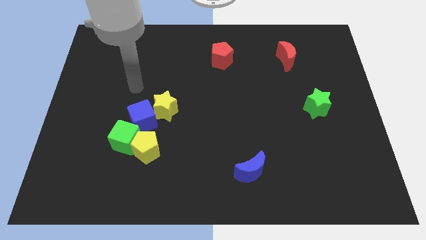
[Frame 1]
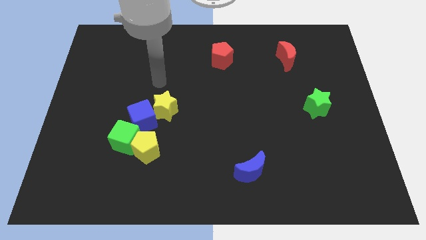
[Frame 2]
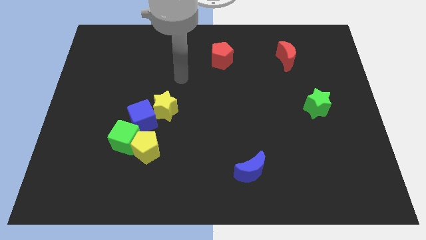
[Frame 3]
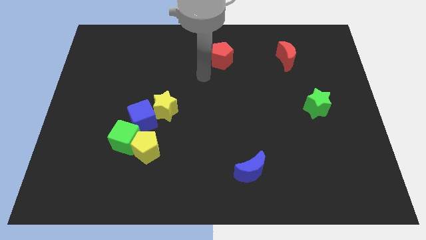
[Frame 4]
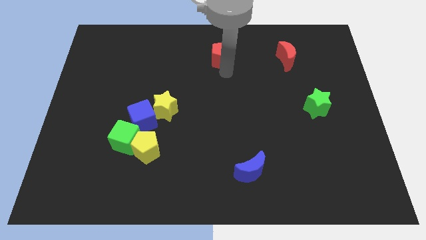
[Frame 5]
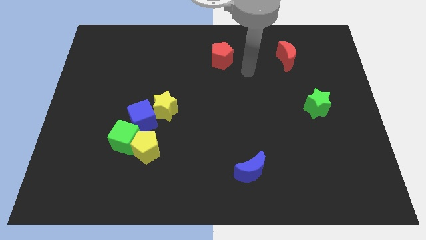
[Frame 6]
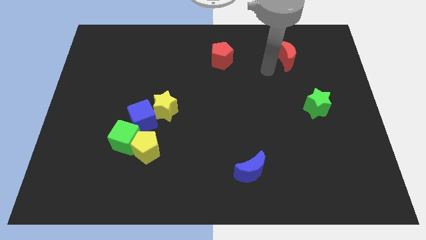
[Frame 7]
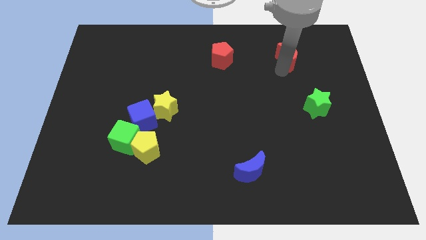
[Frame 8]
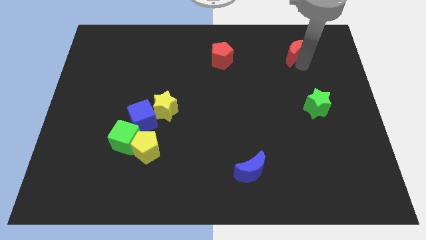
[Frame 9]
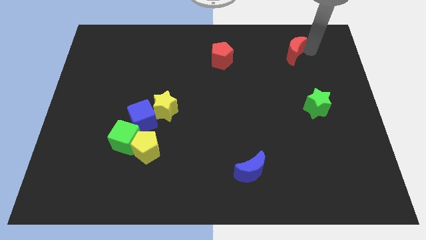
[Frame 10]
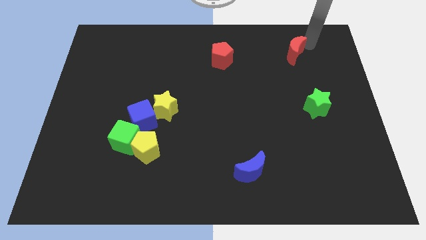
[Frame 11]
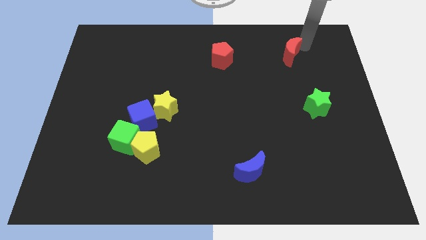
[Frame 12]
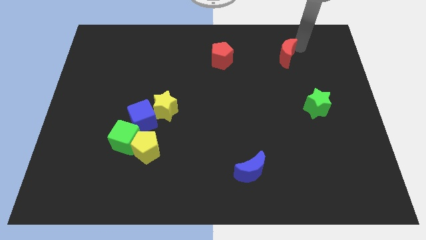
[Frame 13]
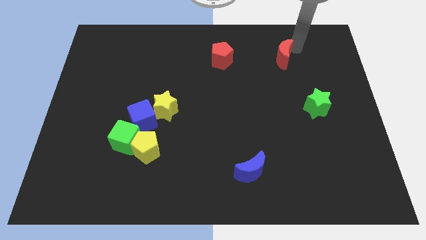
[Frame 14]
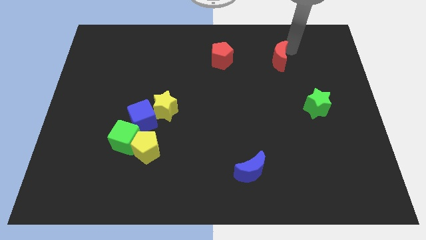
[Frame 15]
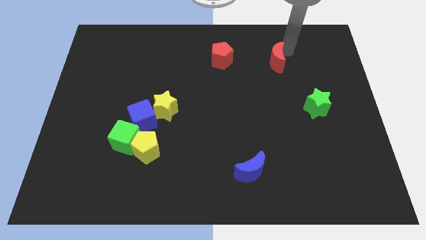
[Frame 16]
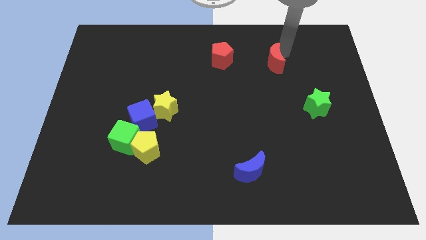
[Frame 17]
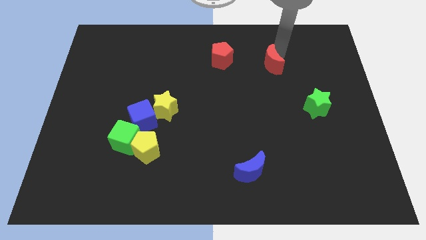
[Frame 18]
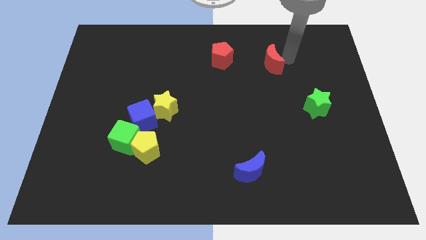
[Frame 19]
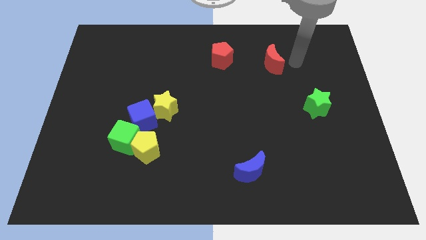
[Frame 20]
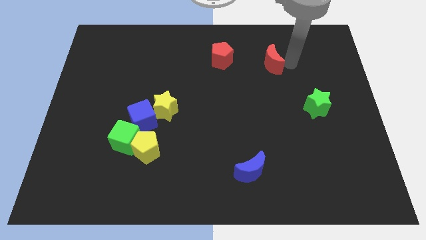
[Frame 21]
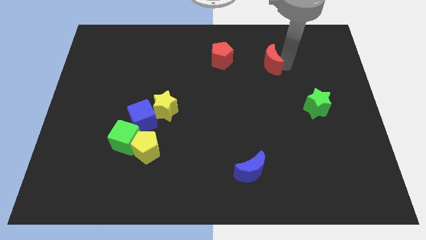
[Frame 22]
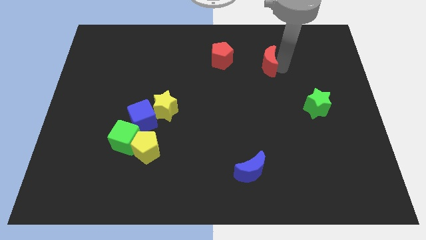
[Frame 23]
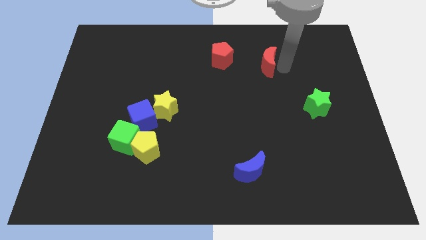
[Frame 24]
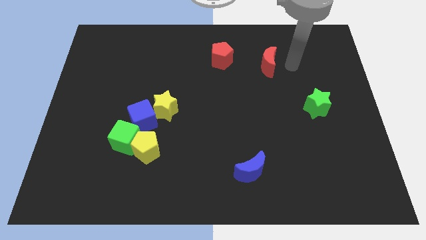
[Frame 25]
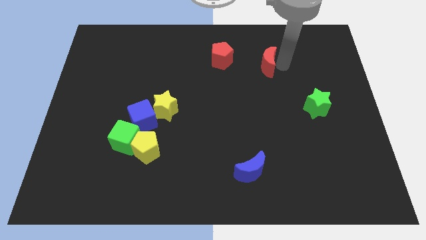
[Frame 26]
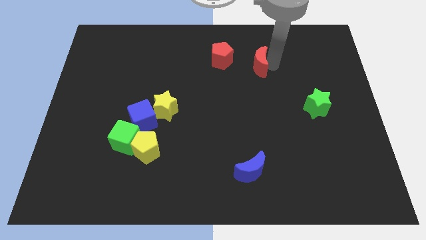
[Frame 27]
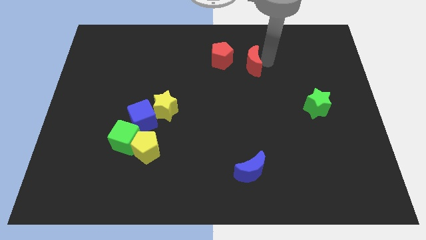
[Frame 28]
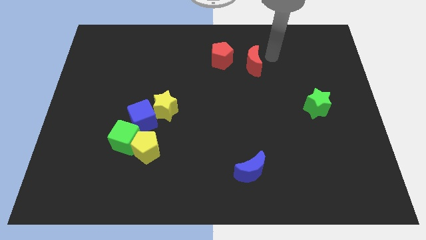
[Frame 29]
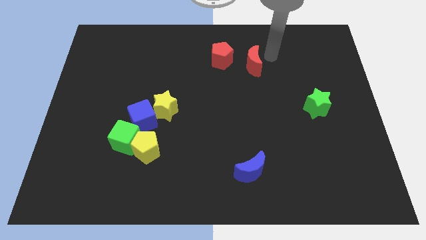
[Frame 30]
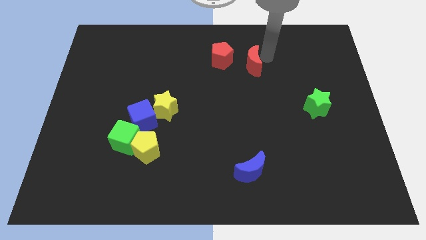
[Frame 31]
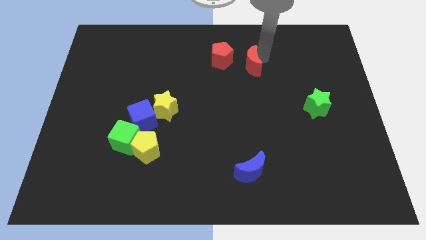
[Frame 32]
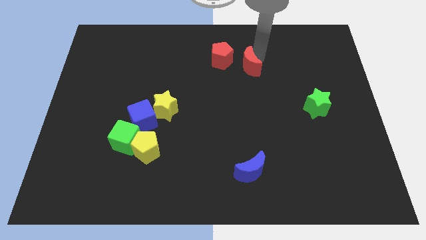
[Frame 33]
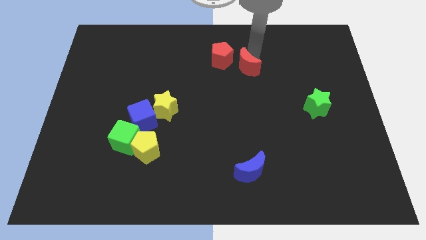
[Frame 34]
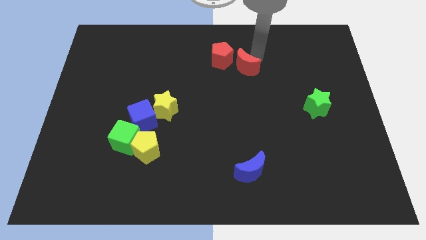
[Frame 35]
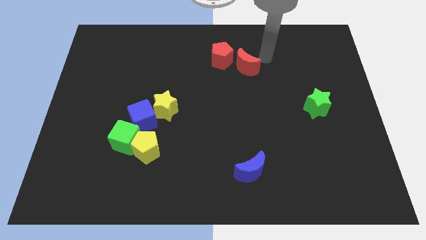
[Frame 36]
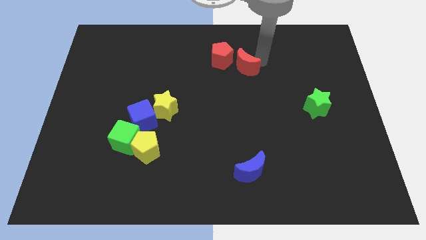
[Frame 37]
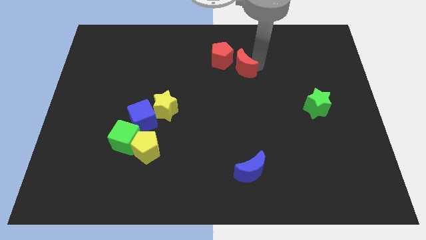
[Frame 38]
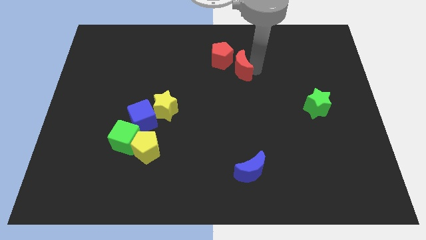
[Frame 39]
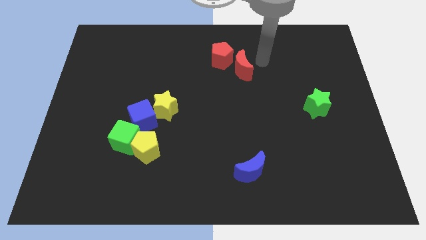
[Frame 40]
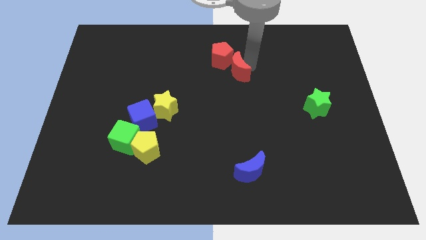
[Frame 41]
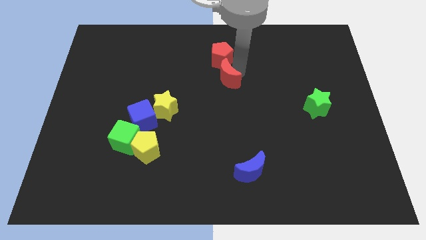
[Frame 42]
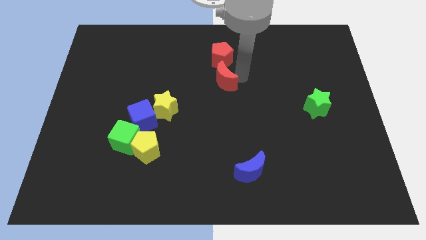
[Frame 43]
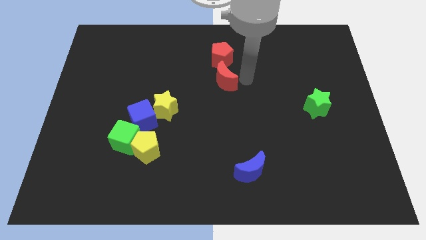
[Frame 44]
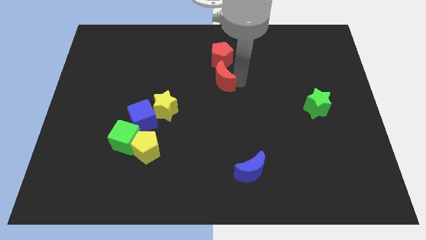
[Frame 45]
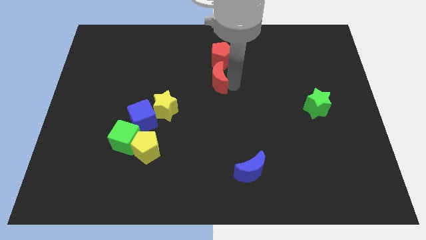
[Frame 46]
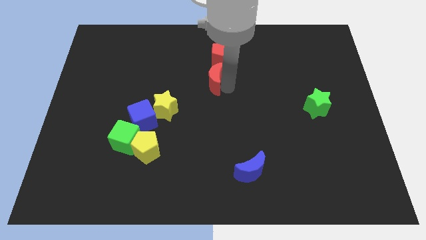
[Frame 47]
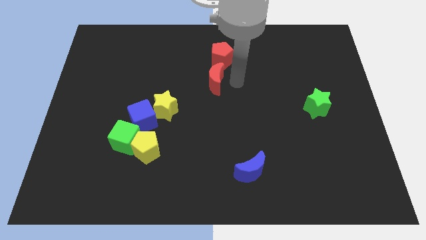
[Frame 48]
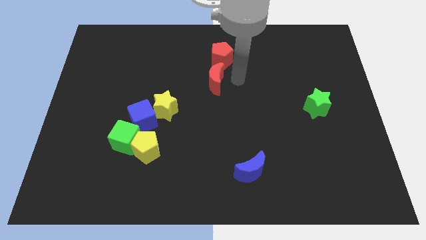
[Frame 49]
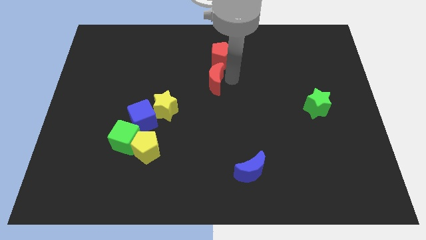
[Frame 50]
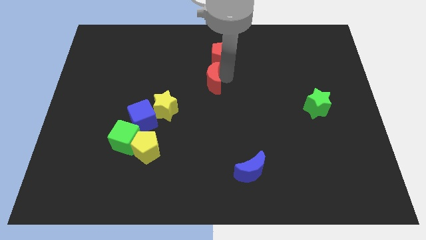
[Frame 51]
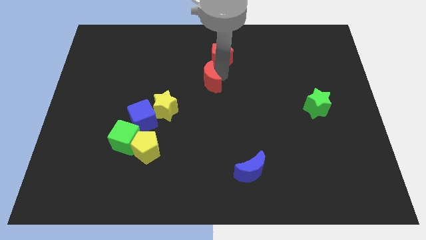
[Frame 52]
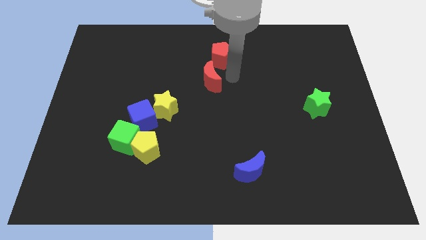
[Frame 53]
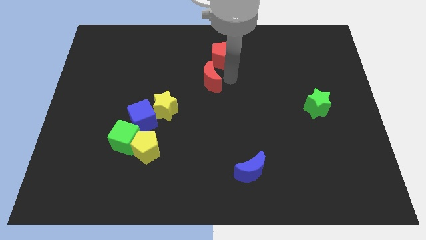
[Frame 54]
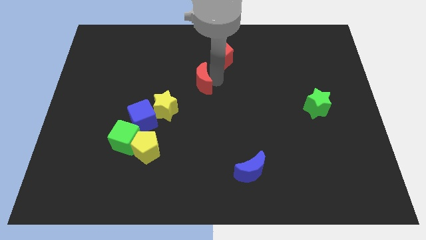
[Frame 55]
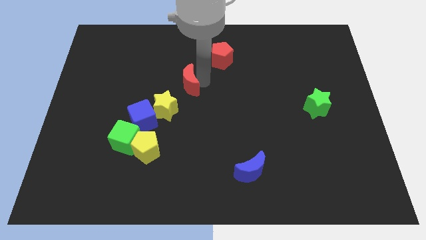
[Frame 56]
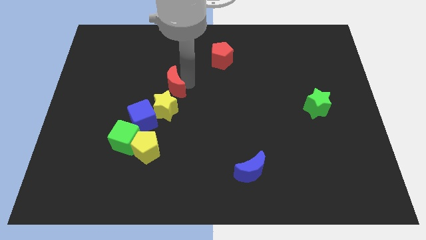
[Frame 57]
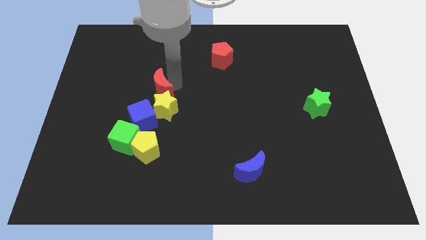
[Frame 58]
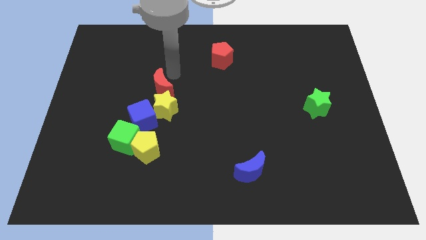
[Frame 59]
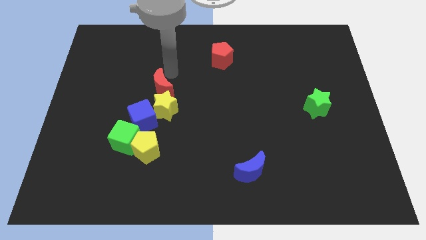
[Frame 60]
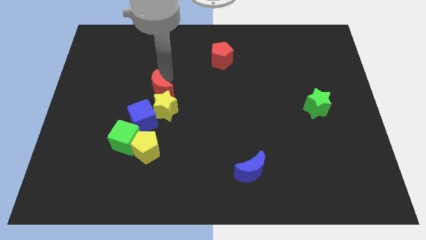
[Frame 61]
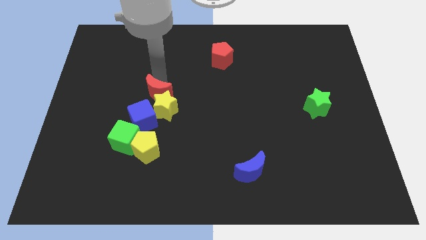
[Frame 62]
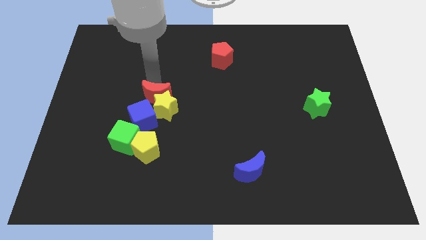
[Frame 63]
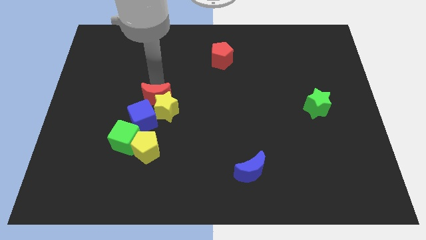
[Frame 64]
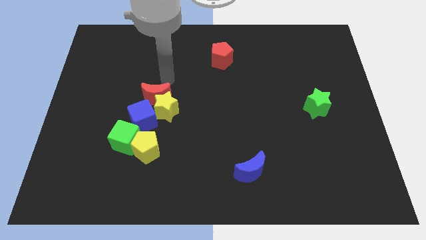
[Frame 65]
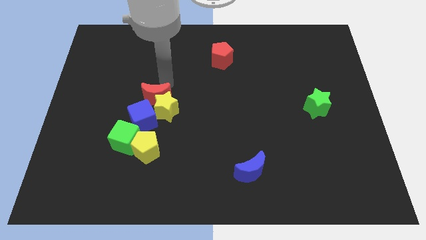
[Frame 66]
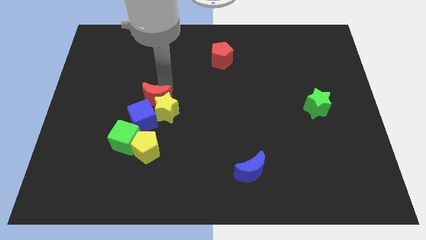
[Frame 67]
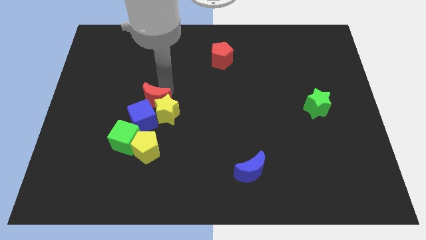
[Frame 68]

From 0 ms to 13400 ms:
move the red moon towards the blue cube
